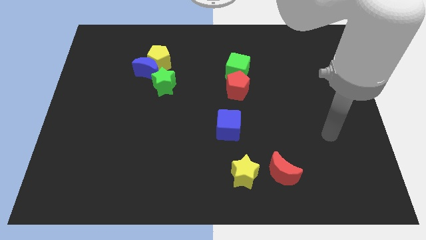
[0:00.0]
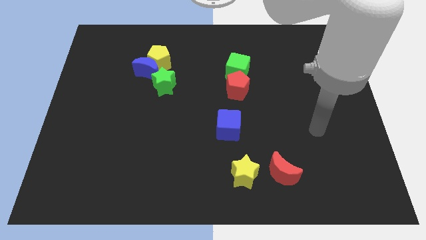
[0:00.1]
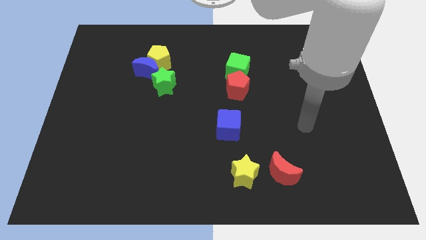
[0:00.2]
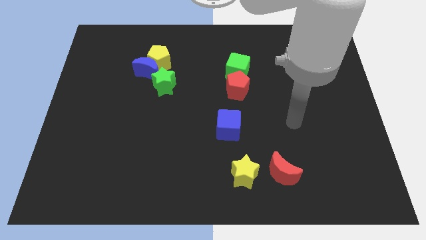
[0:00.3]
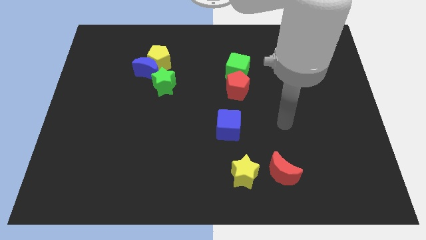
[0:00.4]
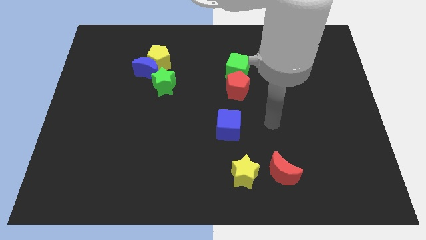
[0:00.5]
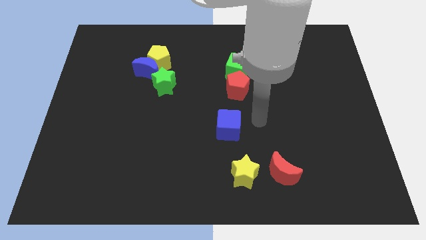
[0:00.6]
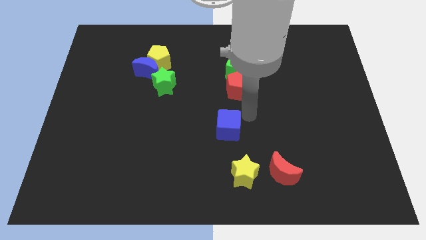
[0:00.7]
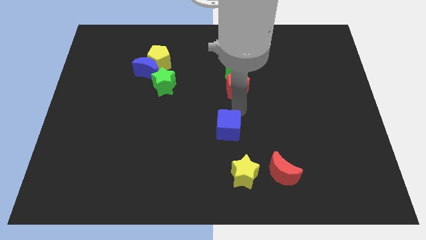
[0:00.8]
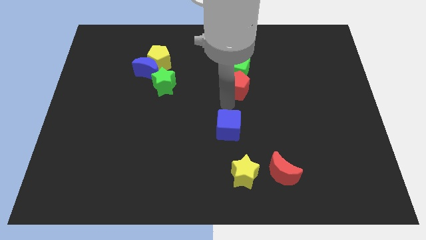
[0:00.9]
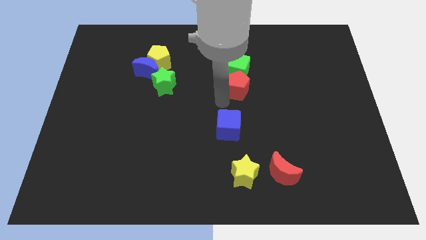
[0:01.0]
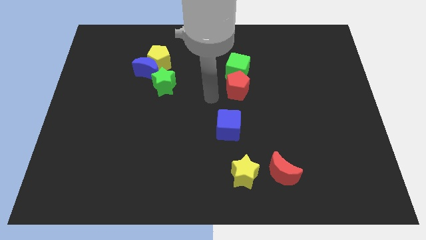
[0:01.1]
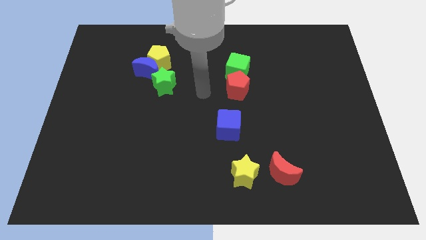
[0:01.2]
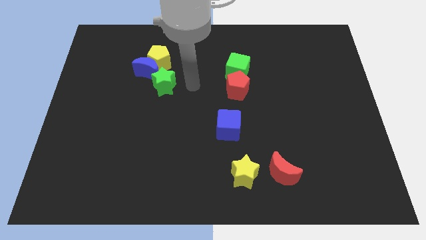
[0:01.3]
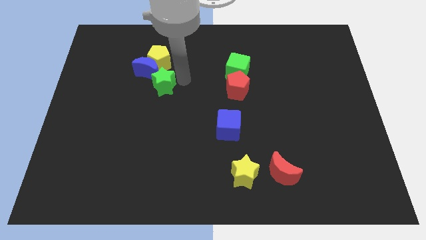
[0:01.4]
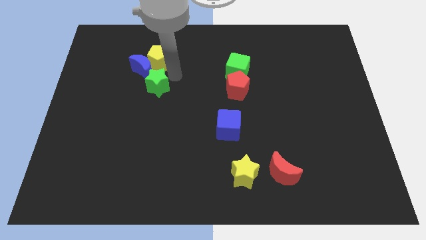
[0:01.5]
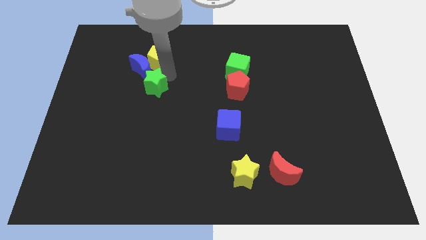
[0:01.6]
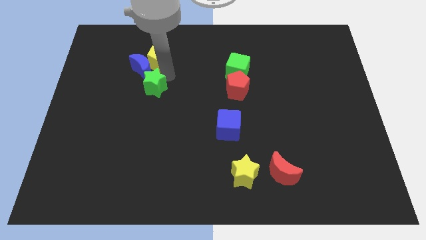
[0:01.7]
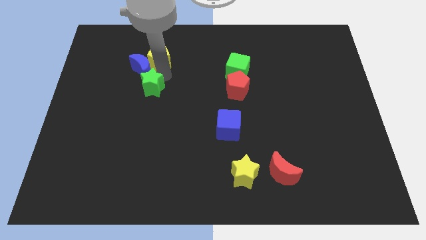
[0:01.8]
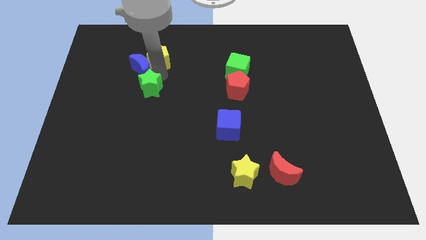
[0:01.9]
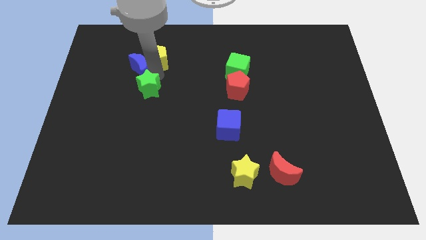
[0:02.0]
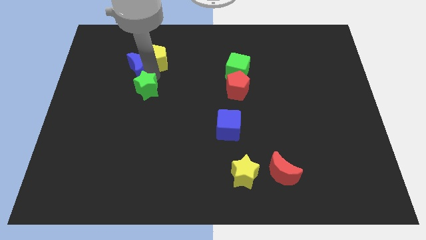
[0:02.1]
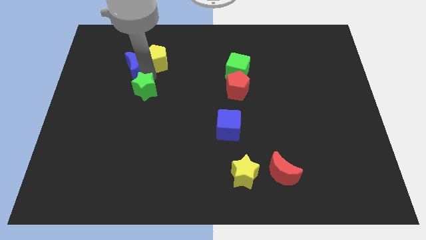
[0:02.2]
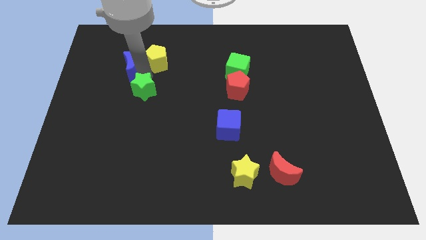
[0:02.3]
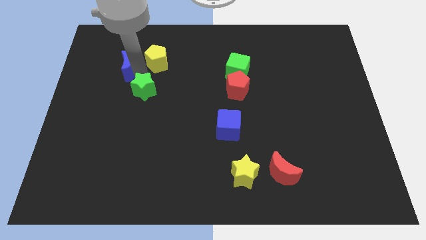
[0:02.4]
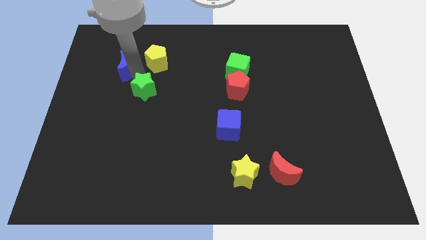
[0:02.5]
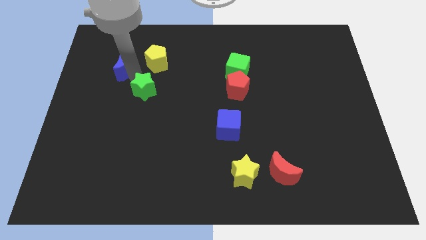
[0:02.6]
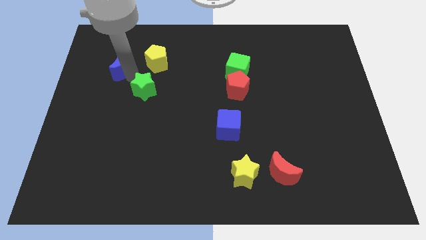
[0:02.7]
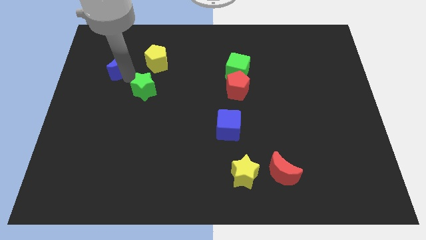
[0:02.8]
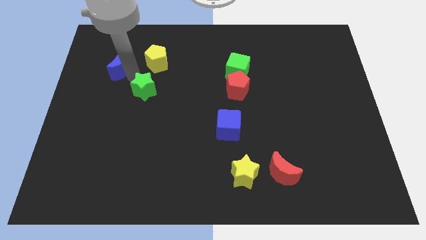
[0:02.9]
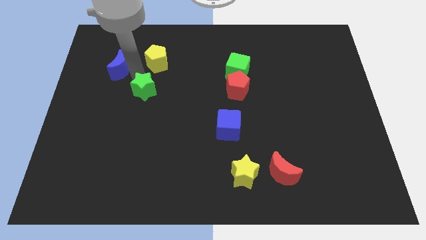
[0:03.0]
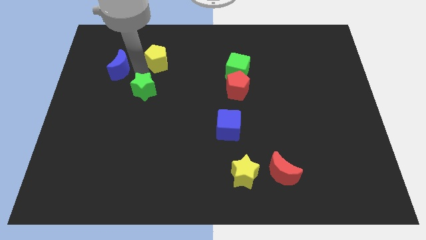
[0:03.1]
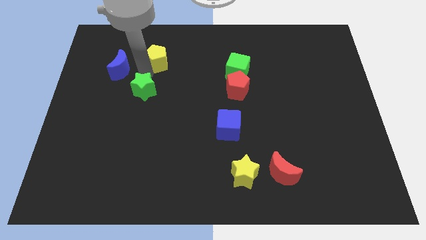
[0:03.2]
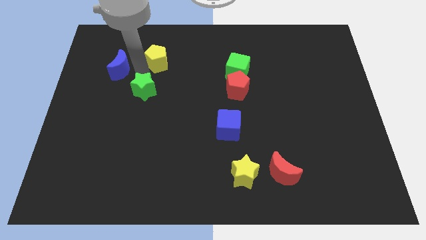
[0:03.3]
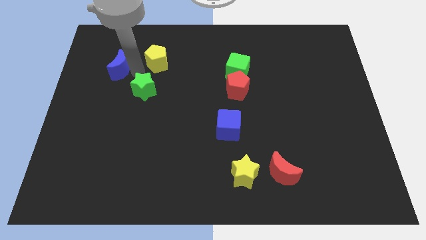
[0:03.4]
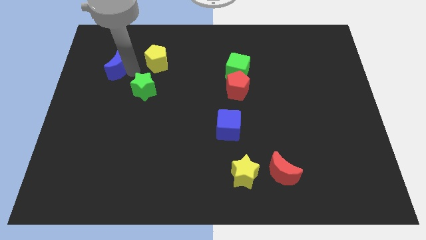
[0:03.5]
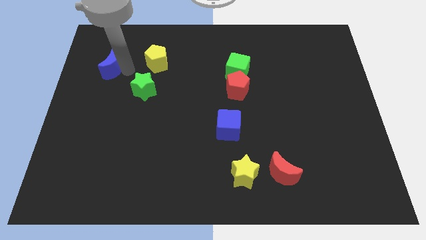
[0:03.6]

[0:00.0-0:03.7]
separate the blue moon from the yellow pentagon and green star

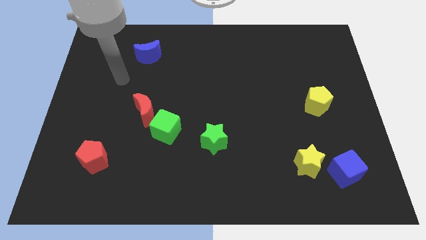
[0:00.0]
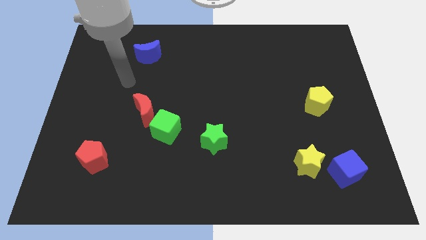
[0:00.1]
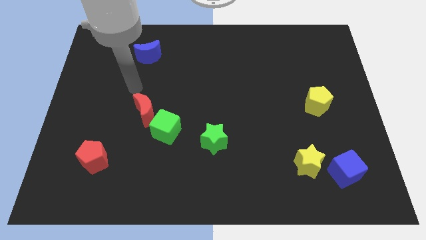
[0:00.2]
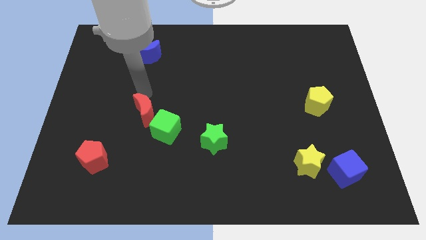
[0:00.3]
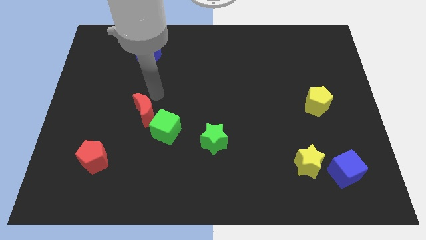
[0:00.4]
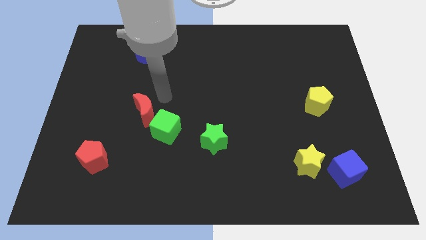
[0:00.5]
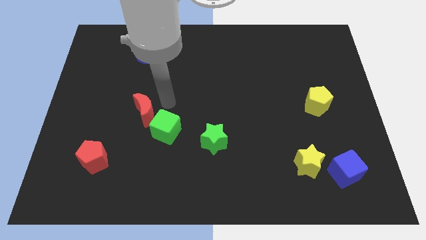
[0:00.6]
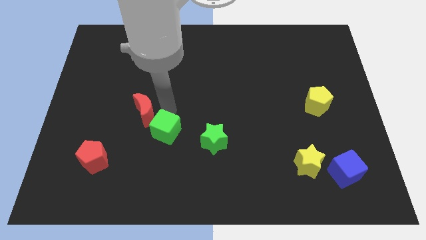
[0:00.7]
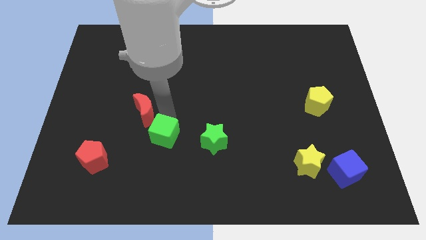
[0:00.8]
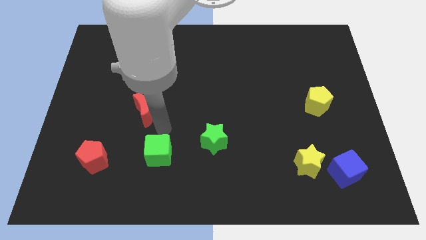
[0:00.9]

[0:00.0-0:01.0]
move the red moon away from the green cube

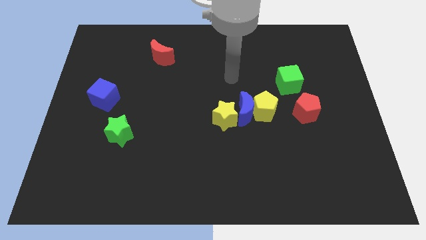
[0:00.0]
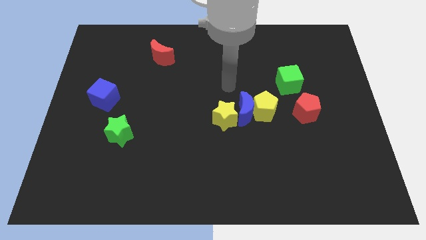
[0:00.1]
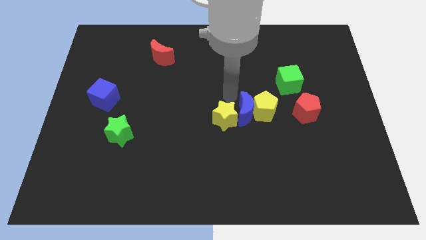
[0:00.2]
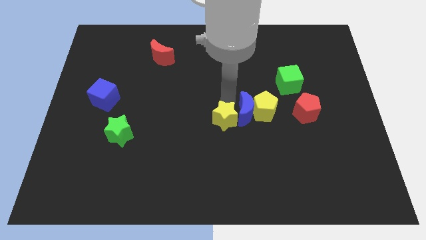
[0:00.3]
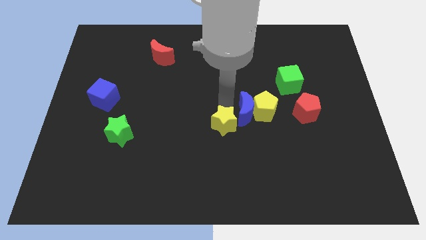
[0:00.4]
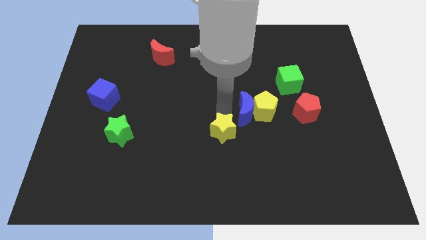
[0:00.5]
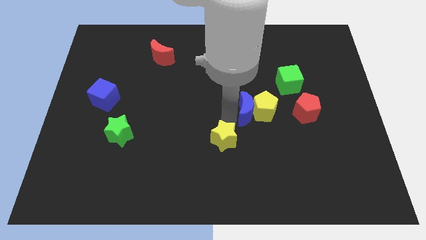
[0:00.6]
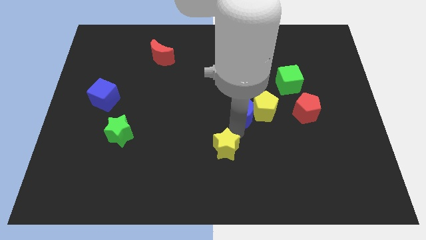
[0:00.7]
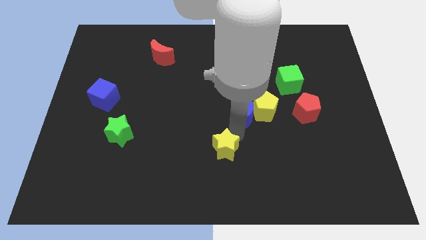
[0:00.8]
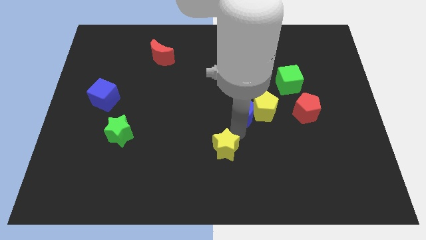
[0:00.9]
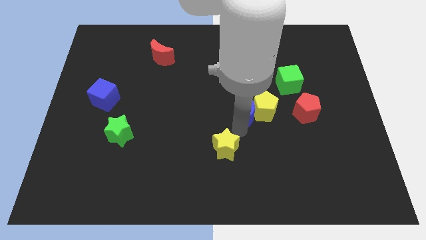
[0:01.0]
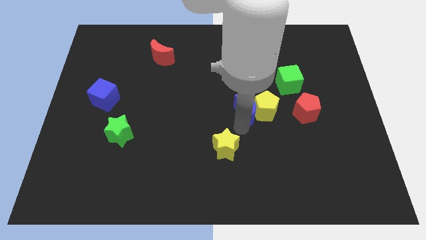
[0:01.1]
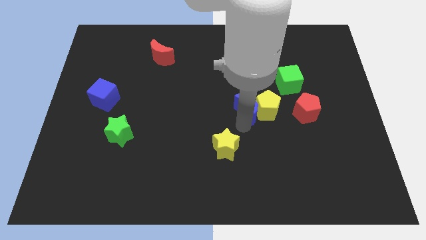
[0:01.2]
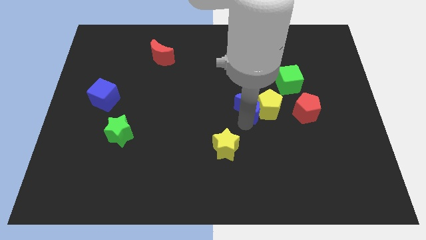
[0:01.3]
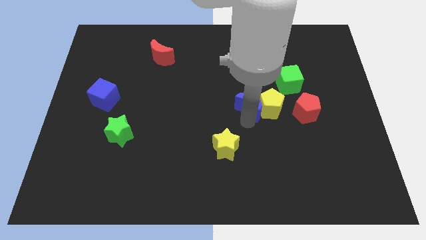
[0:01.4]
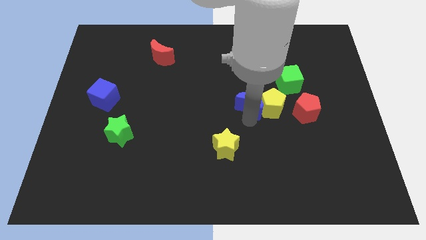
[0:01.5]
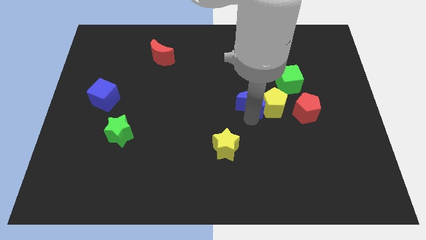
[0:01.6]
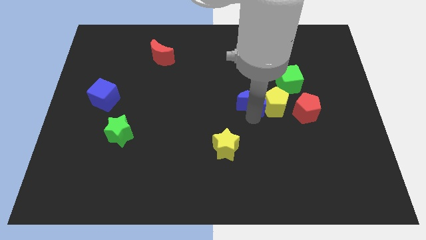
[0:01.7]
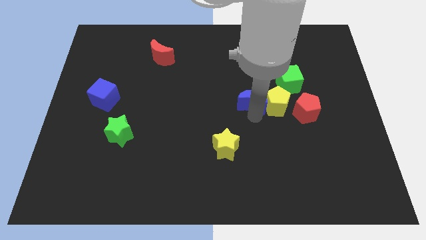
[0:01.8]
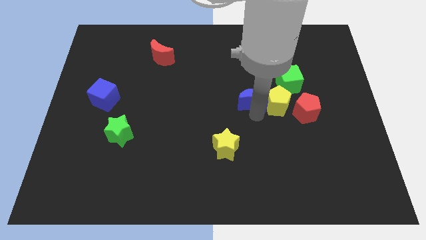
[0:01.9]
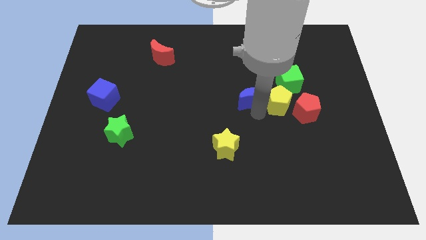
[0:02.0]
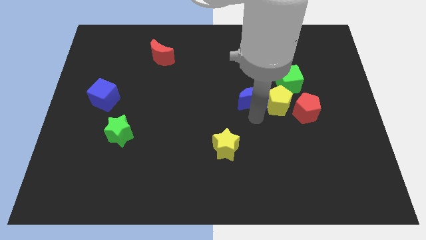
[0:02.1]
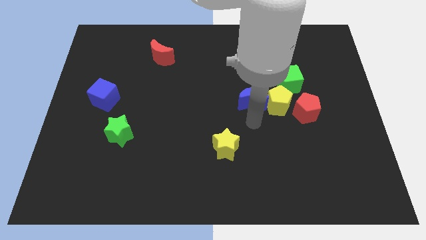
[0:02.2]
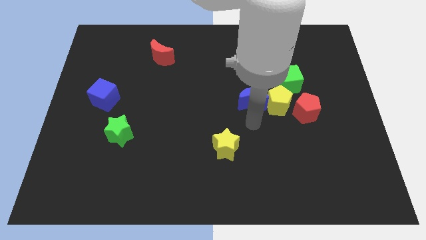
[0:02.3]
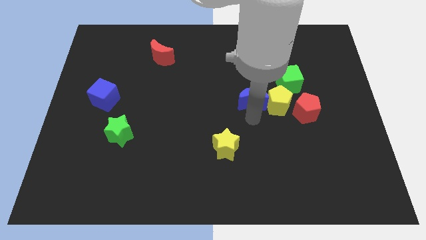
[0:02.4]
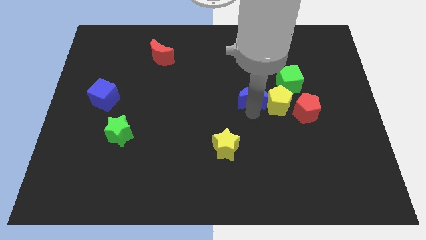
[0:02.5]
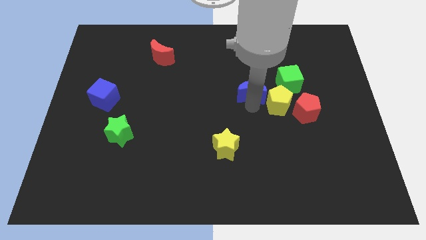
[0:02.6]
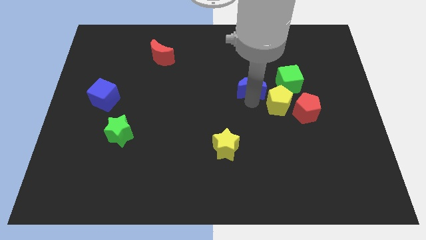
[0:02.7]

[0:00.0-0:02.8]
pull the blue moon apart from the yellow pentagon and yellow star

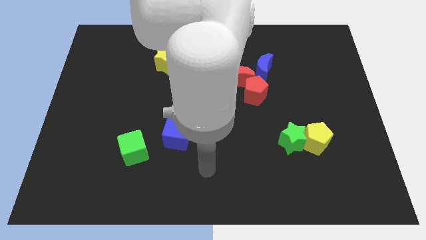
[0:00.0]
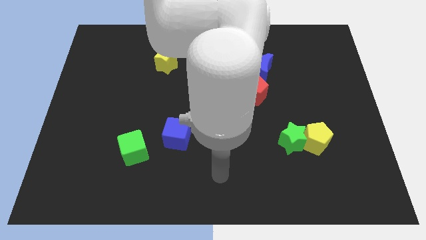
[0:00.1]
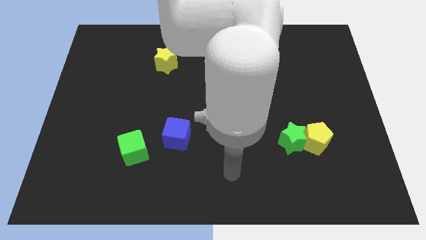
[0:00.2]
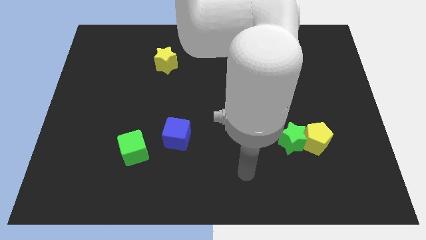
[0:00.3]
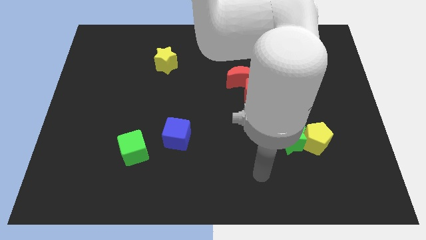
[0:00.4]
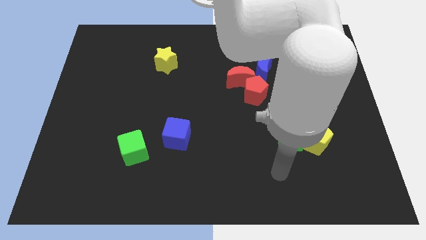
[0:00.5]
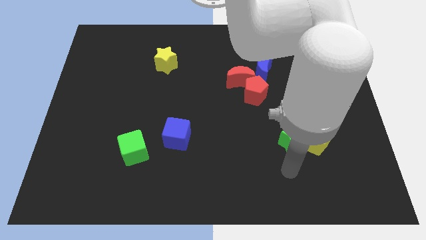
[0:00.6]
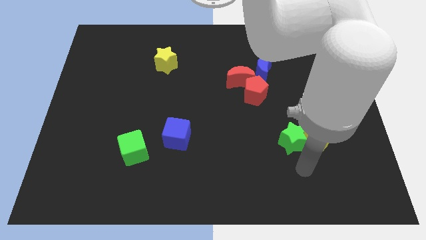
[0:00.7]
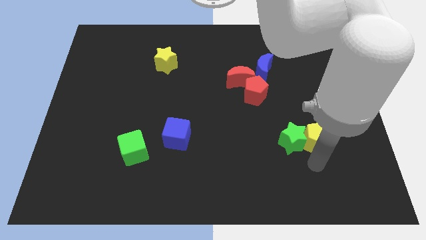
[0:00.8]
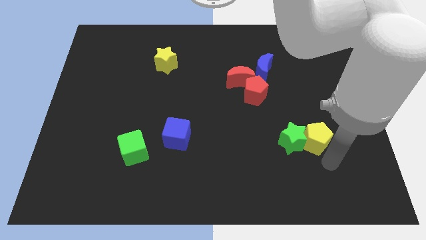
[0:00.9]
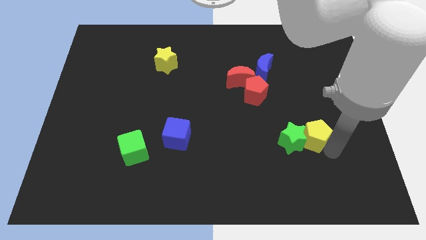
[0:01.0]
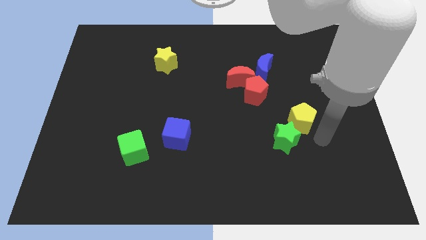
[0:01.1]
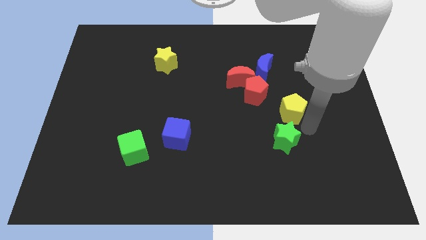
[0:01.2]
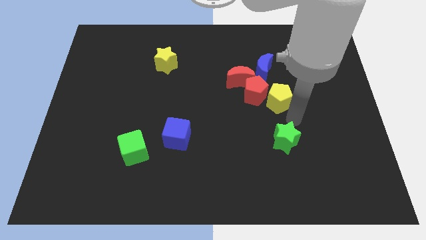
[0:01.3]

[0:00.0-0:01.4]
pull the green star apart from the yellow pentagon

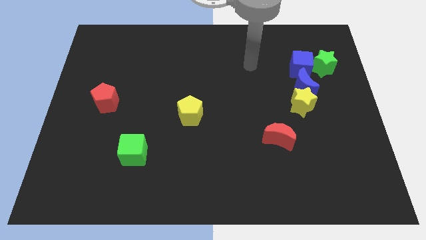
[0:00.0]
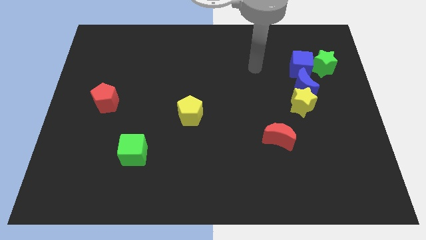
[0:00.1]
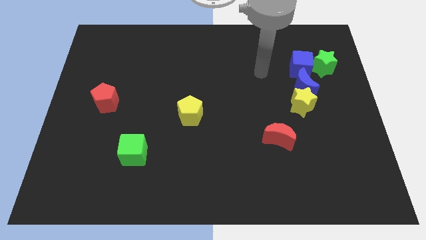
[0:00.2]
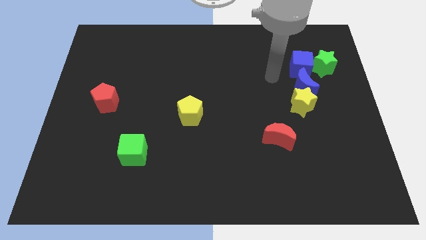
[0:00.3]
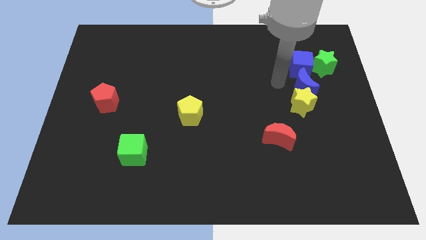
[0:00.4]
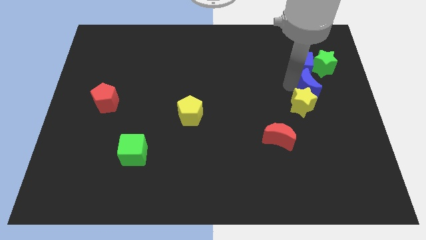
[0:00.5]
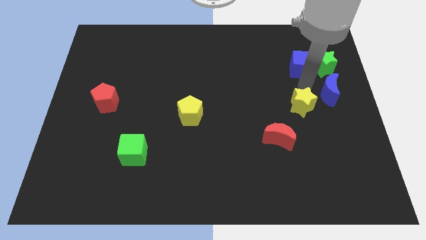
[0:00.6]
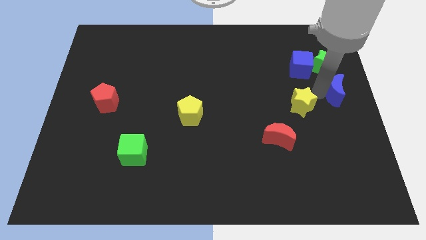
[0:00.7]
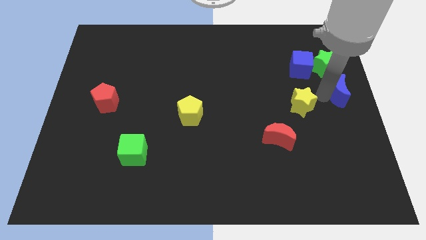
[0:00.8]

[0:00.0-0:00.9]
move the yellow star away from the blue moon
